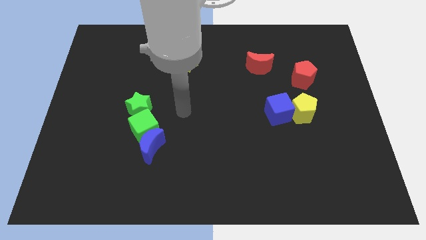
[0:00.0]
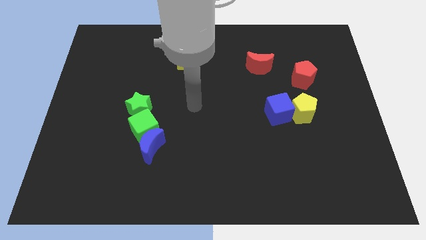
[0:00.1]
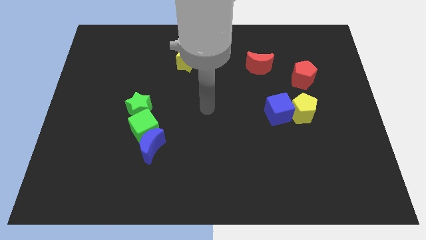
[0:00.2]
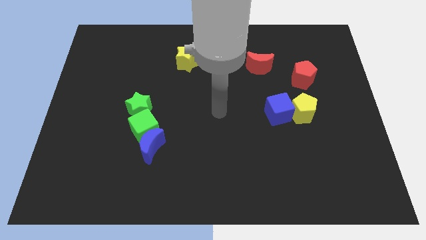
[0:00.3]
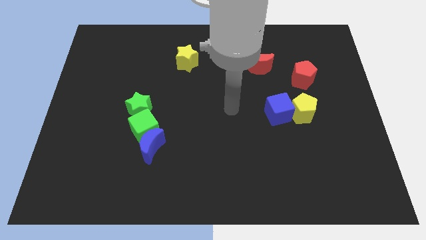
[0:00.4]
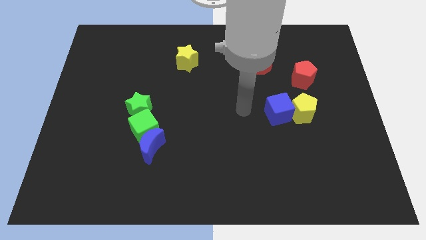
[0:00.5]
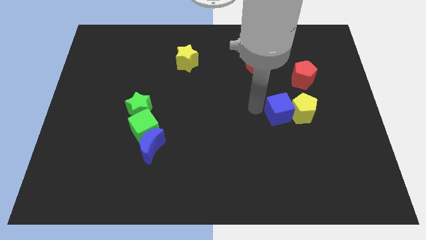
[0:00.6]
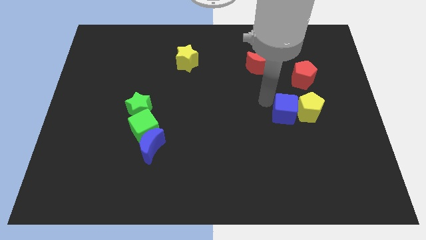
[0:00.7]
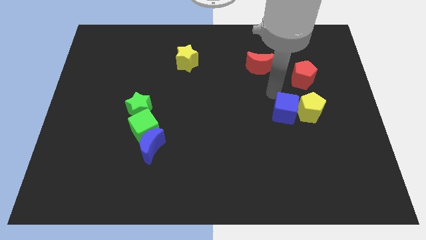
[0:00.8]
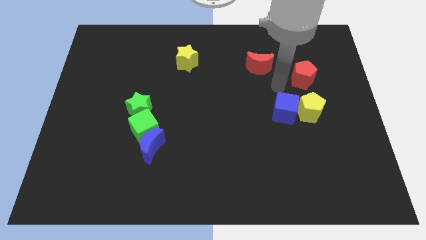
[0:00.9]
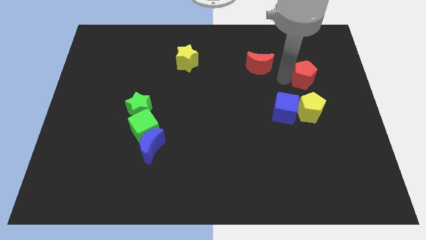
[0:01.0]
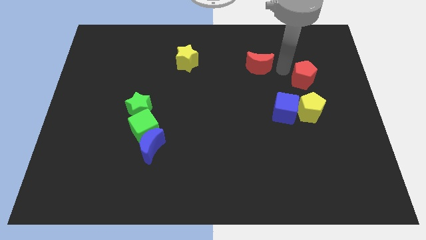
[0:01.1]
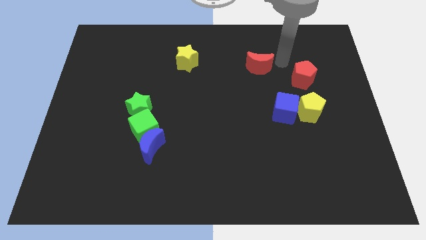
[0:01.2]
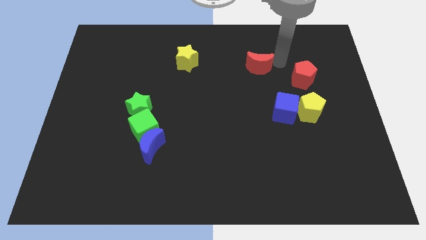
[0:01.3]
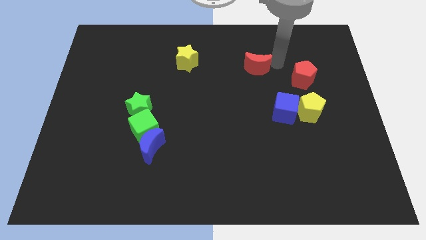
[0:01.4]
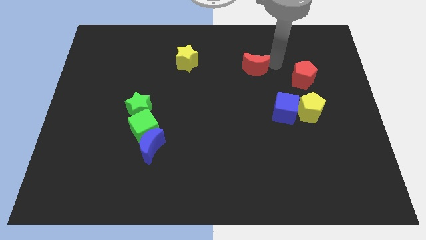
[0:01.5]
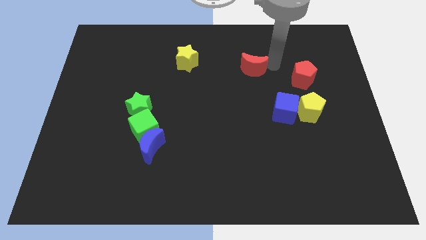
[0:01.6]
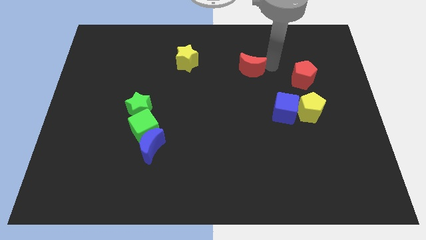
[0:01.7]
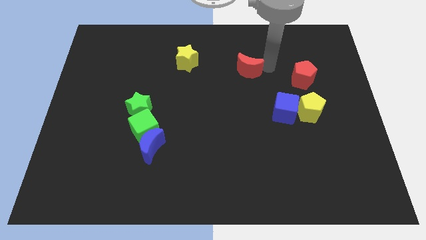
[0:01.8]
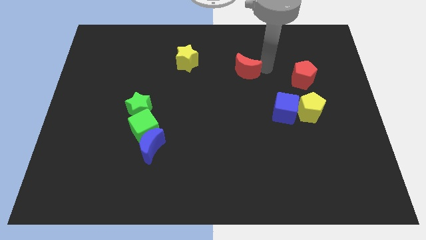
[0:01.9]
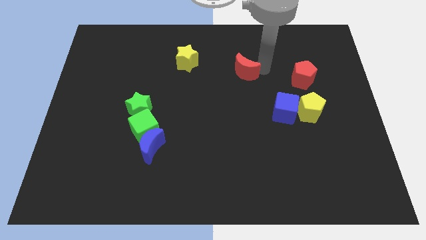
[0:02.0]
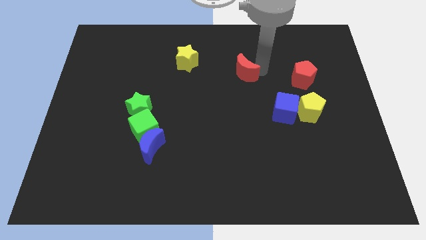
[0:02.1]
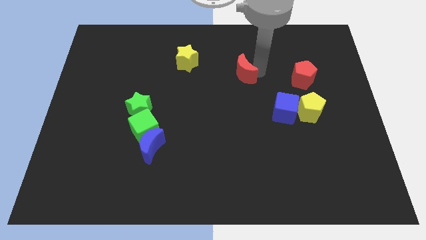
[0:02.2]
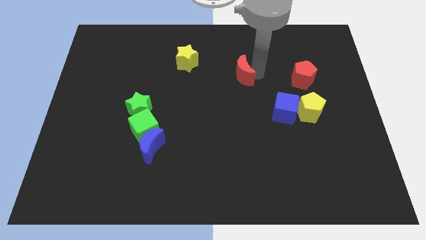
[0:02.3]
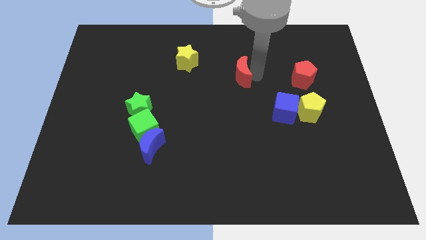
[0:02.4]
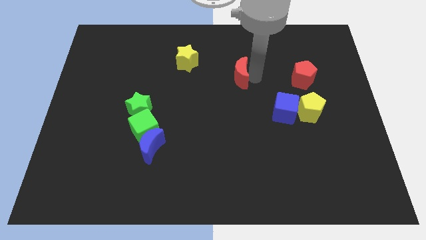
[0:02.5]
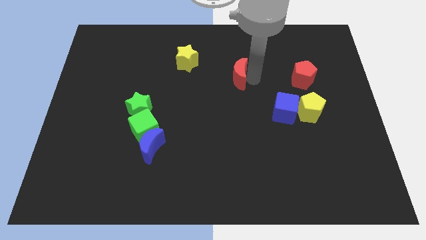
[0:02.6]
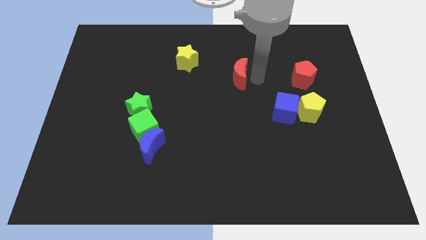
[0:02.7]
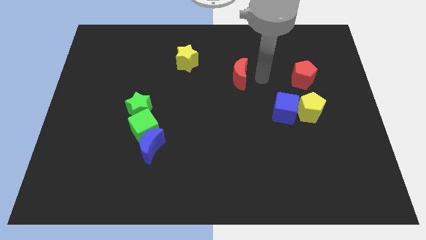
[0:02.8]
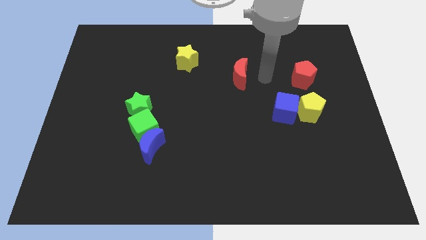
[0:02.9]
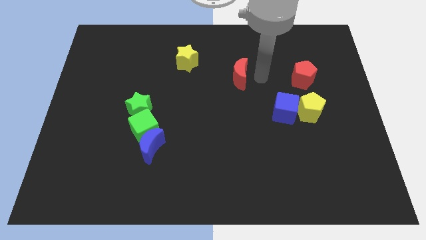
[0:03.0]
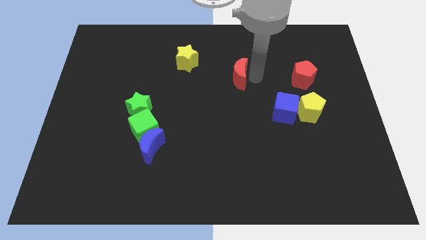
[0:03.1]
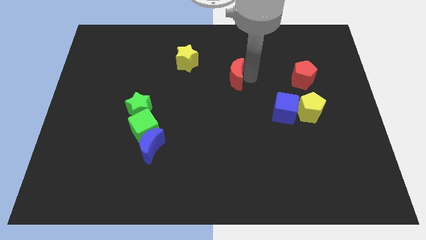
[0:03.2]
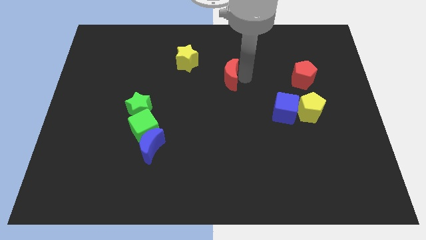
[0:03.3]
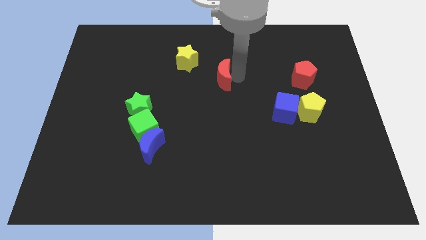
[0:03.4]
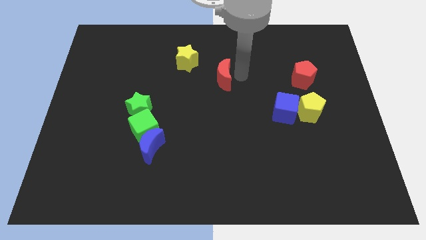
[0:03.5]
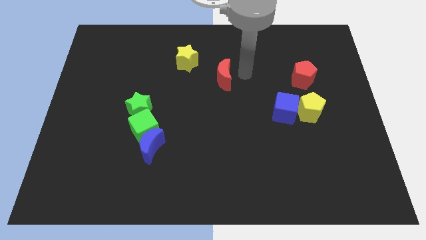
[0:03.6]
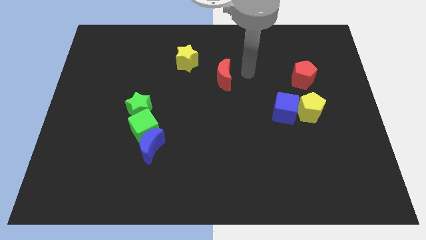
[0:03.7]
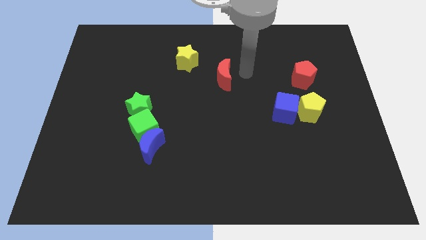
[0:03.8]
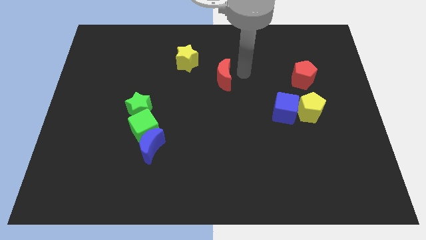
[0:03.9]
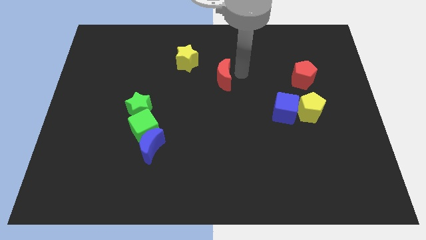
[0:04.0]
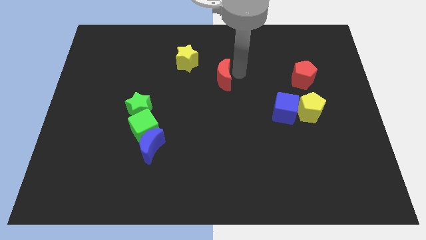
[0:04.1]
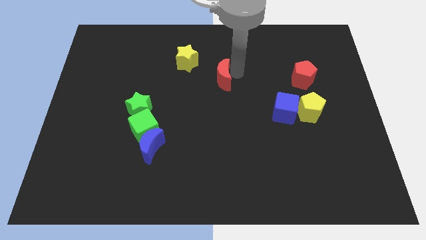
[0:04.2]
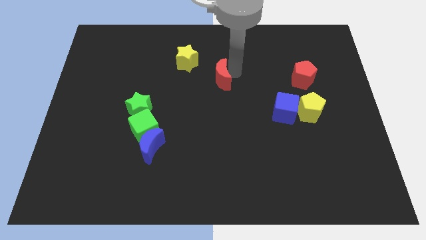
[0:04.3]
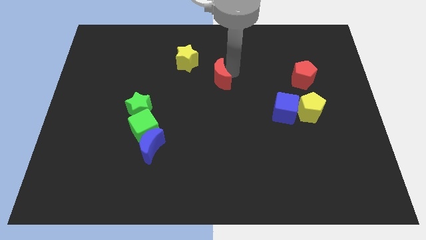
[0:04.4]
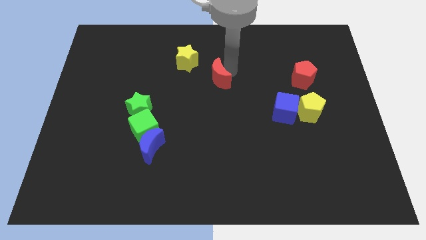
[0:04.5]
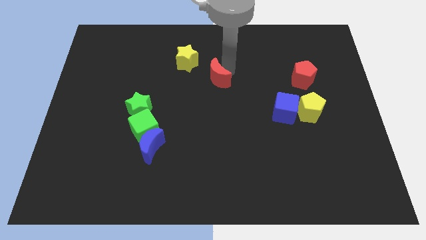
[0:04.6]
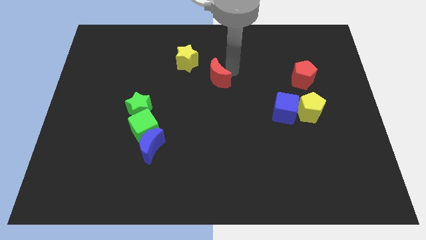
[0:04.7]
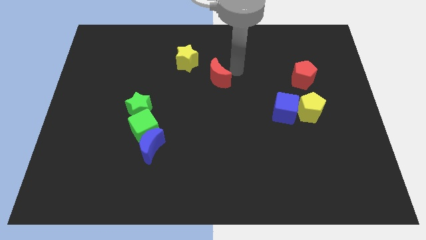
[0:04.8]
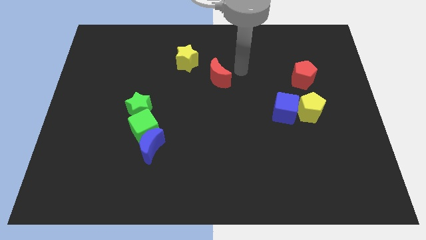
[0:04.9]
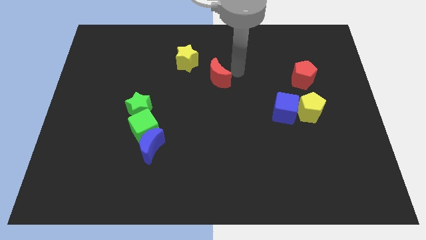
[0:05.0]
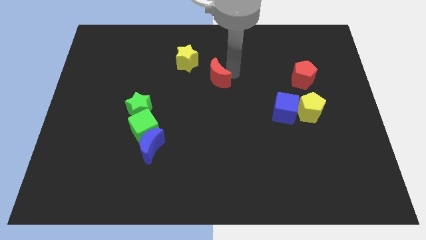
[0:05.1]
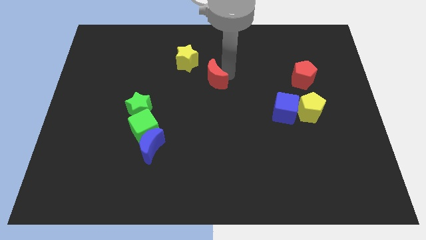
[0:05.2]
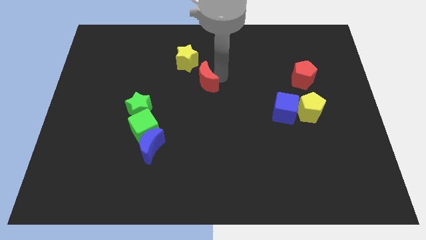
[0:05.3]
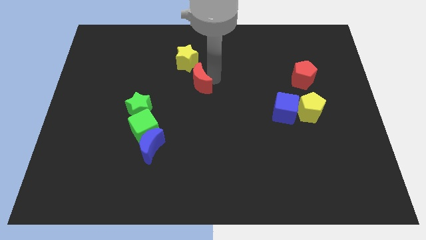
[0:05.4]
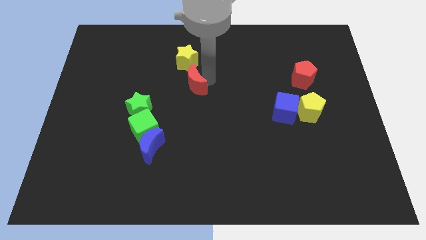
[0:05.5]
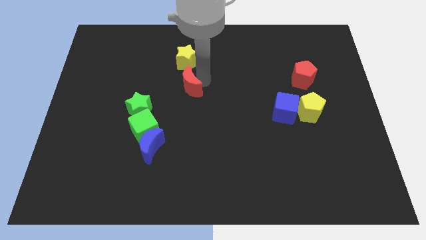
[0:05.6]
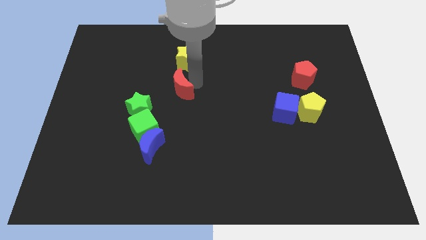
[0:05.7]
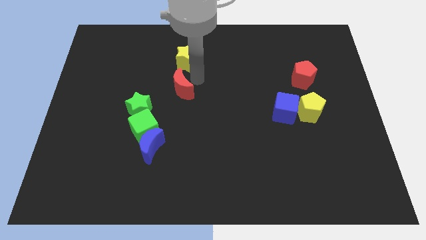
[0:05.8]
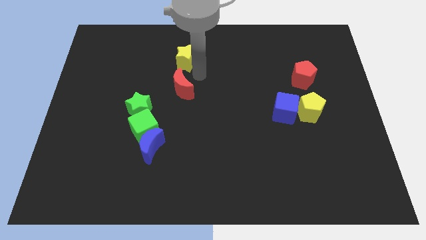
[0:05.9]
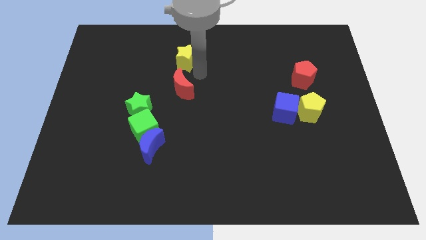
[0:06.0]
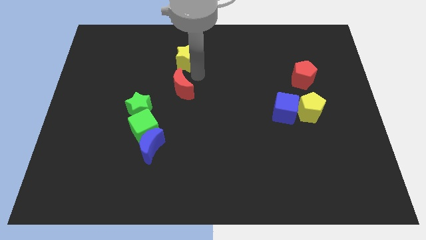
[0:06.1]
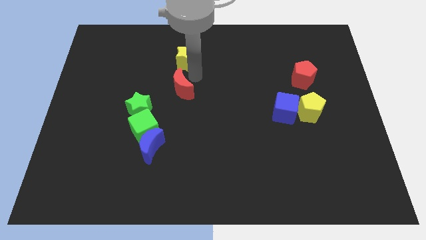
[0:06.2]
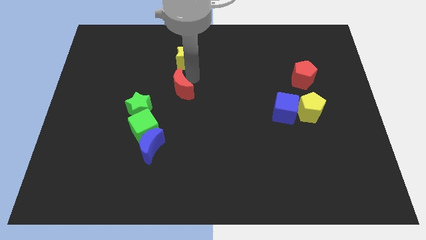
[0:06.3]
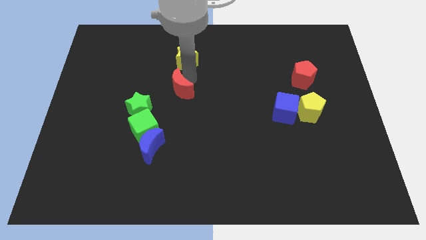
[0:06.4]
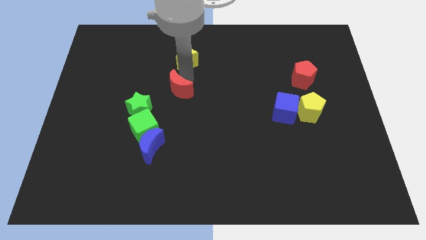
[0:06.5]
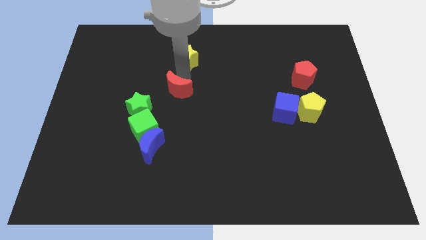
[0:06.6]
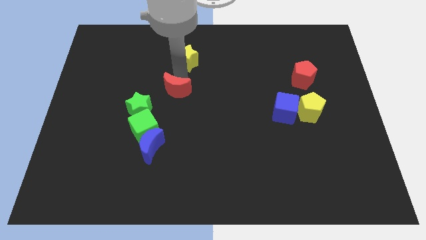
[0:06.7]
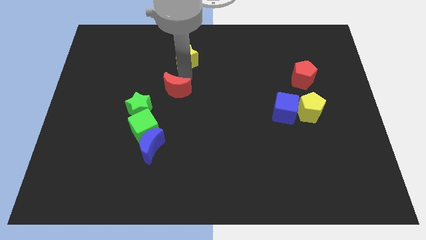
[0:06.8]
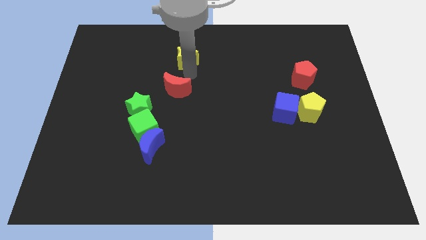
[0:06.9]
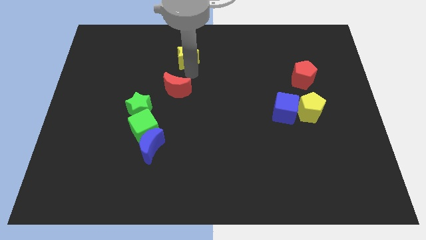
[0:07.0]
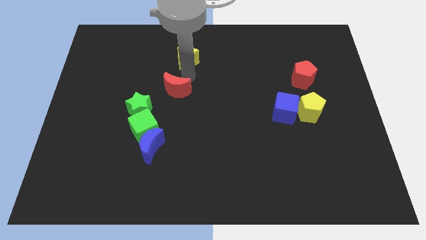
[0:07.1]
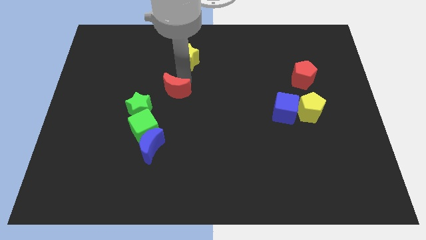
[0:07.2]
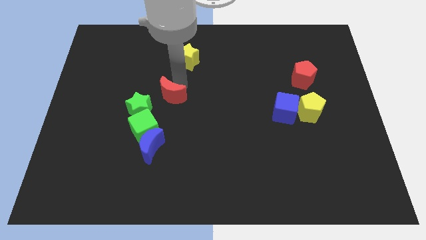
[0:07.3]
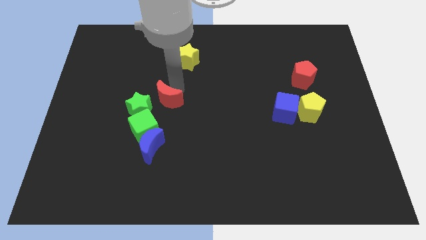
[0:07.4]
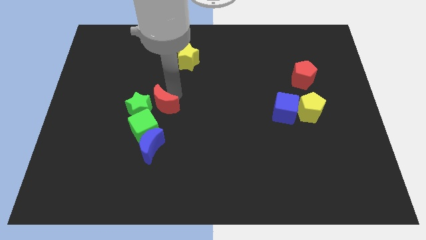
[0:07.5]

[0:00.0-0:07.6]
put the red moon to the green star
